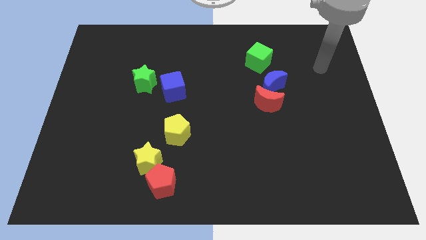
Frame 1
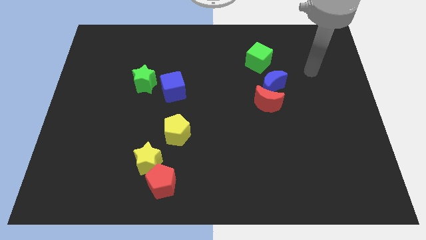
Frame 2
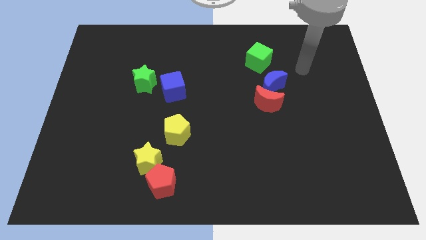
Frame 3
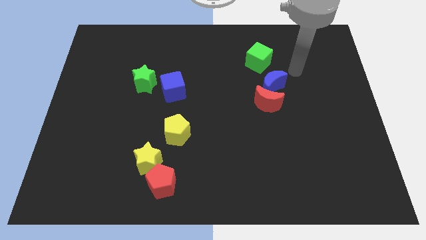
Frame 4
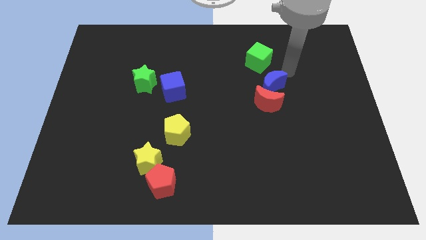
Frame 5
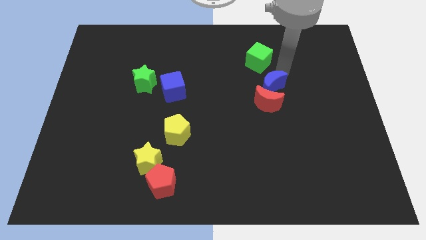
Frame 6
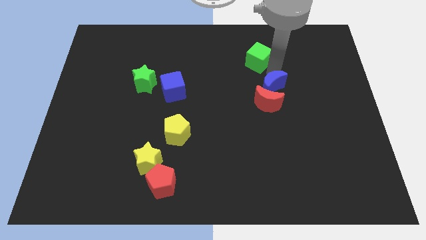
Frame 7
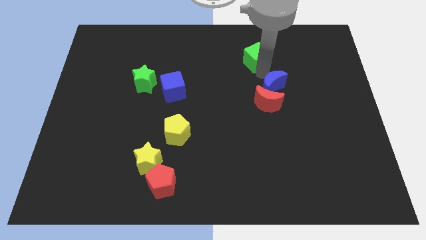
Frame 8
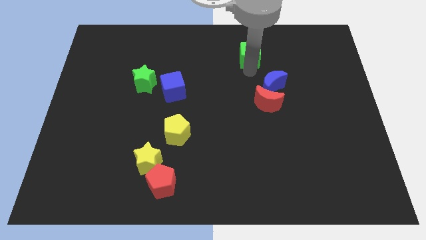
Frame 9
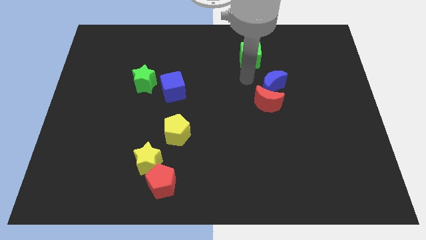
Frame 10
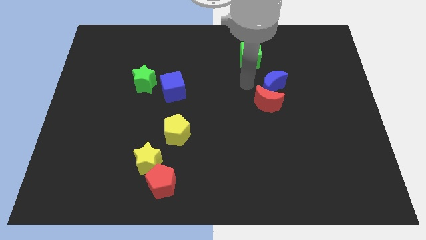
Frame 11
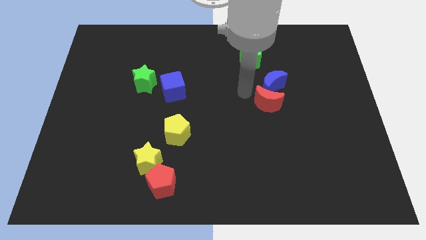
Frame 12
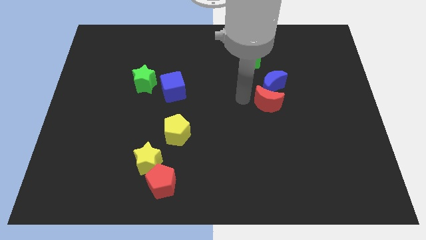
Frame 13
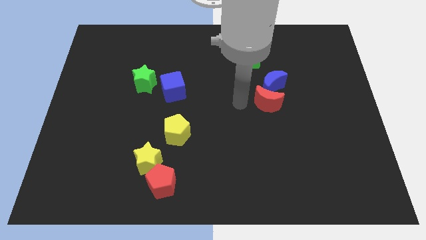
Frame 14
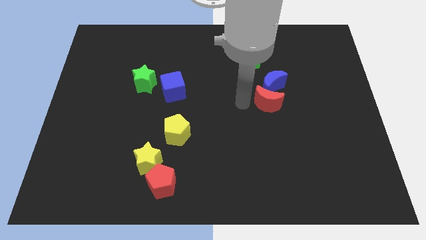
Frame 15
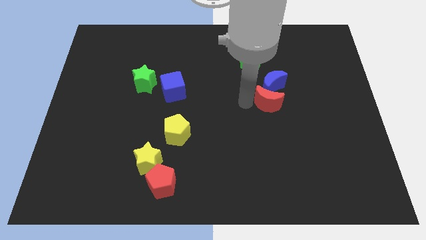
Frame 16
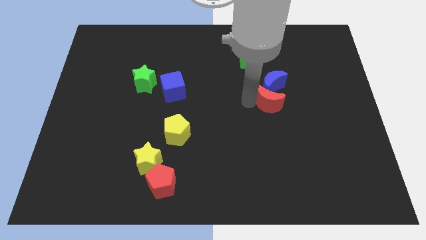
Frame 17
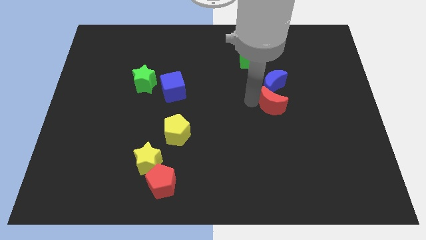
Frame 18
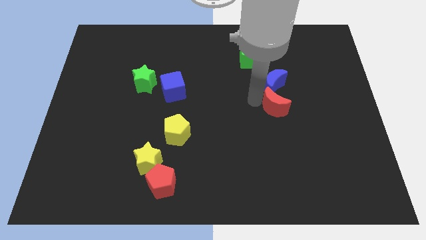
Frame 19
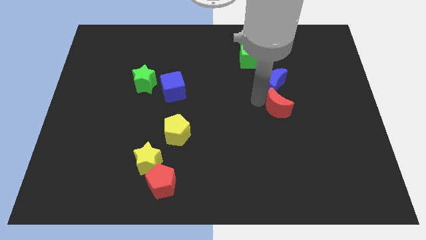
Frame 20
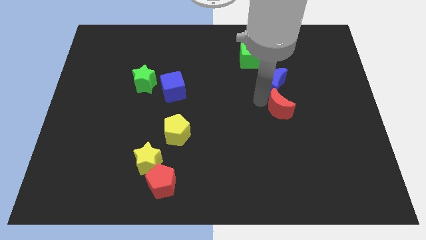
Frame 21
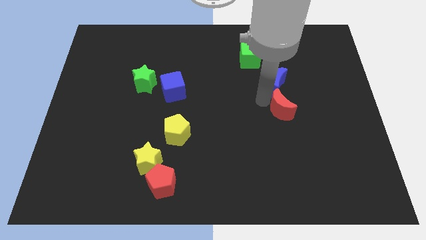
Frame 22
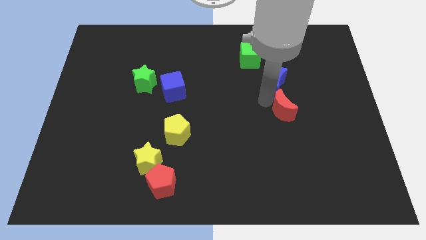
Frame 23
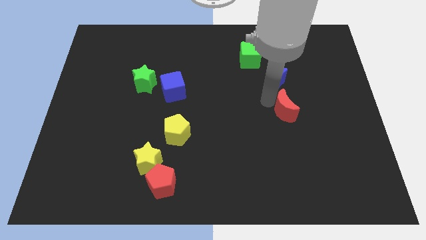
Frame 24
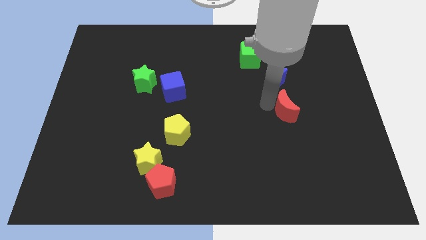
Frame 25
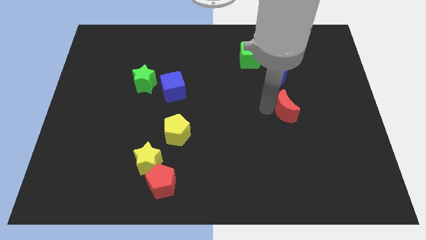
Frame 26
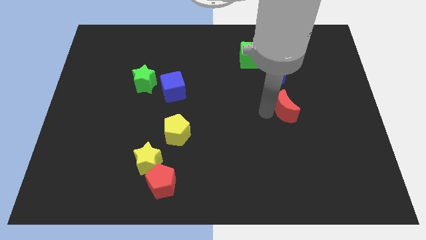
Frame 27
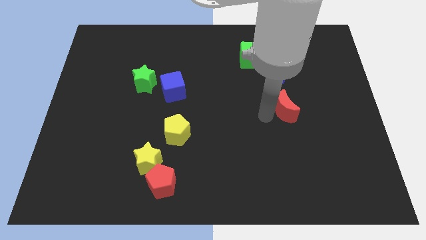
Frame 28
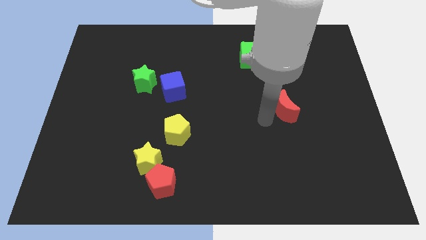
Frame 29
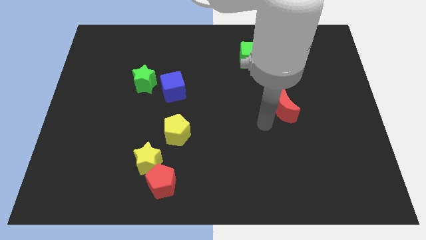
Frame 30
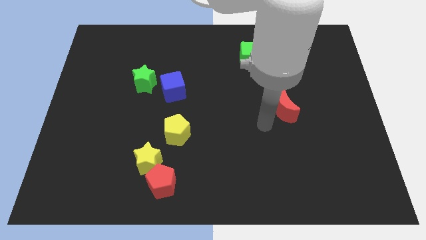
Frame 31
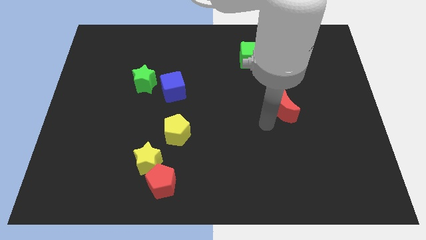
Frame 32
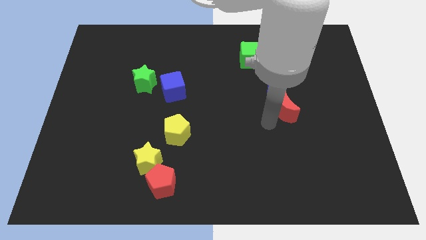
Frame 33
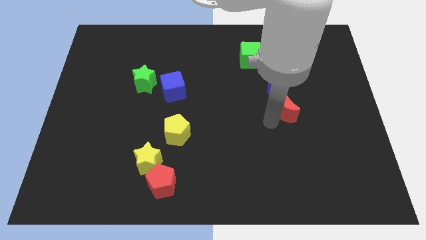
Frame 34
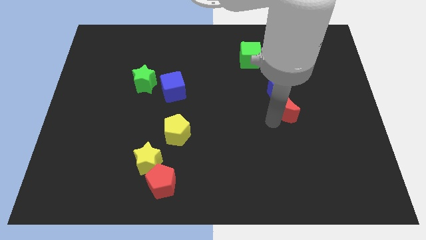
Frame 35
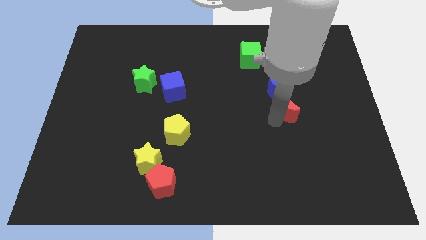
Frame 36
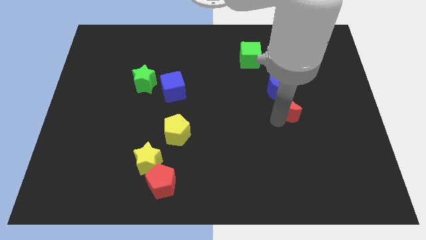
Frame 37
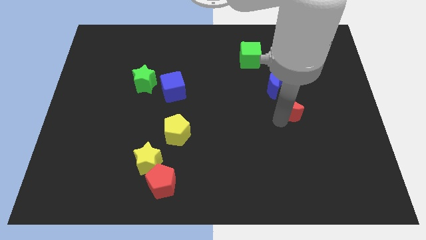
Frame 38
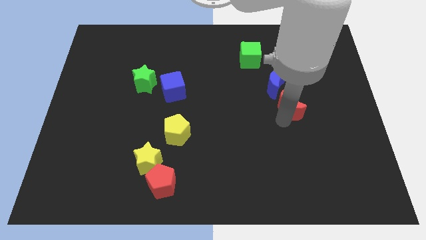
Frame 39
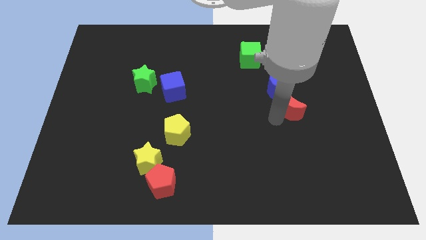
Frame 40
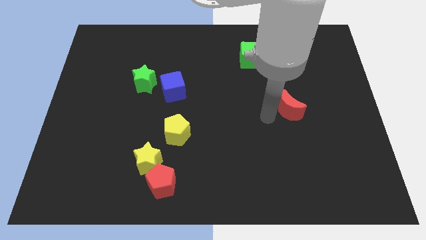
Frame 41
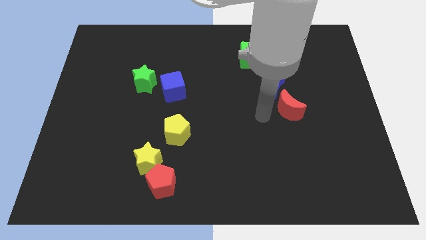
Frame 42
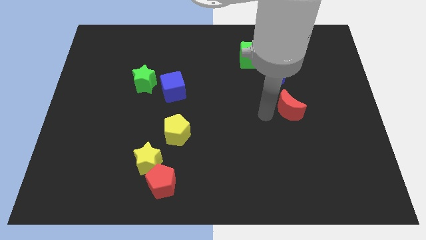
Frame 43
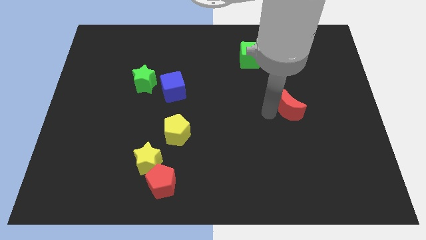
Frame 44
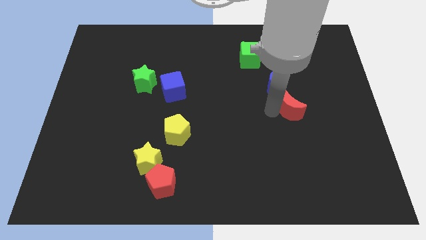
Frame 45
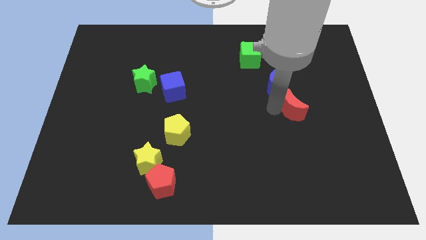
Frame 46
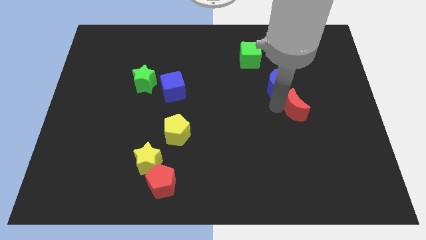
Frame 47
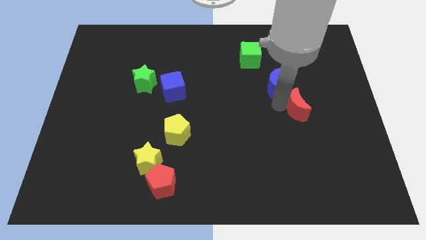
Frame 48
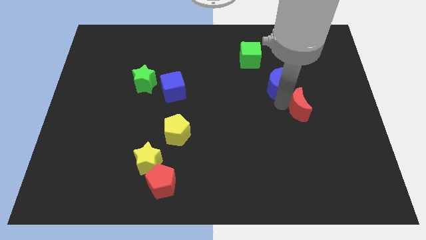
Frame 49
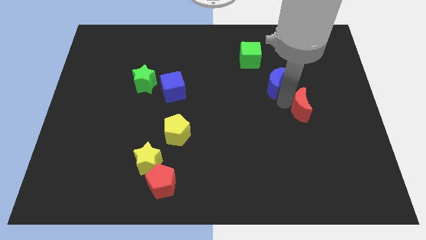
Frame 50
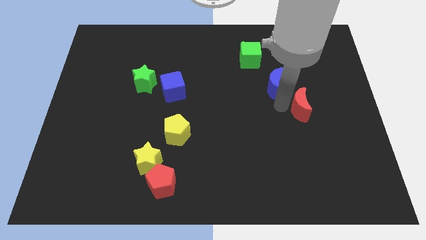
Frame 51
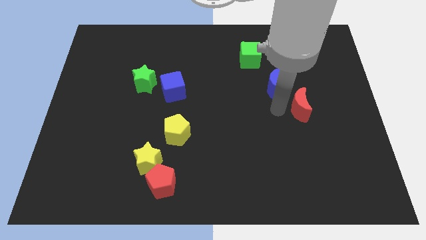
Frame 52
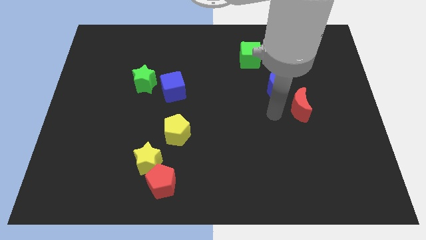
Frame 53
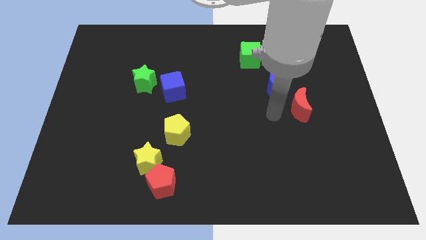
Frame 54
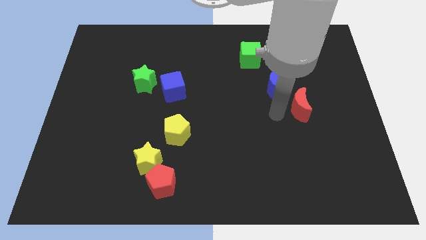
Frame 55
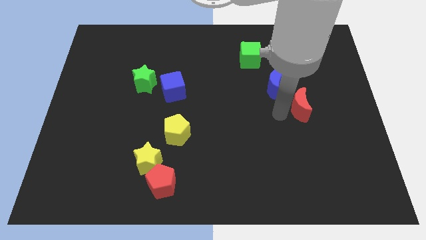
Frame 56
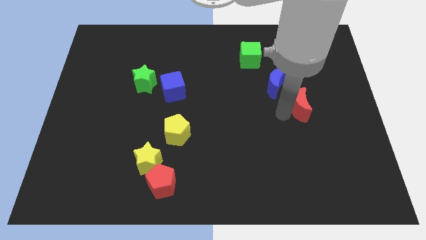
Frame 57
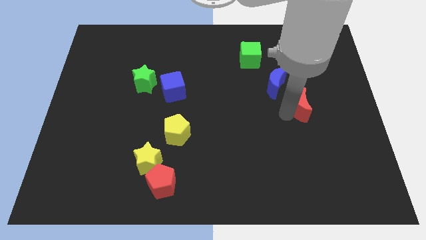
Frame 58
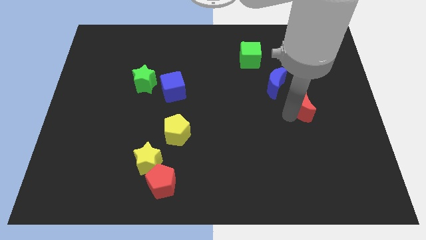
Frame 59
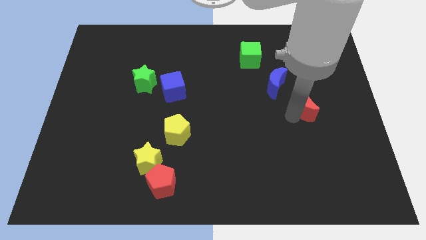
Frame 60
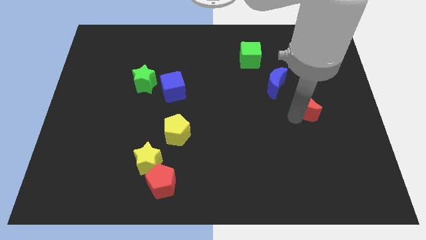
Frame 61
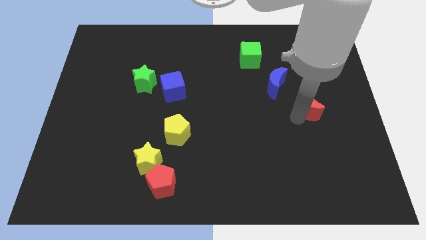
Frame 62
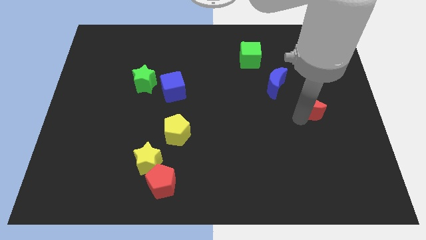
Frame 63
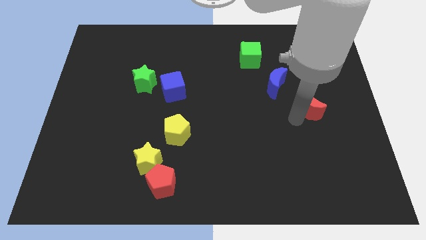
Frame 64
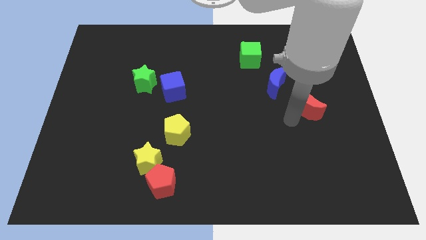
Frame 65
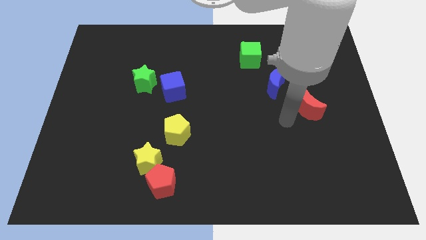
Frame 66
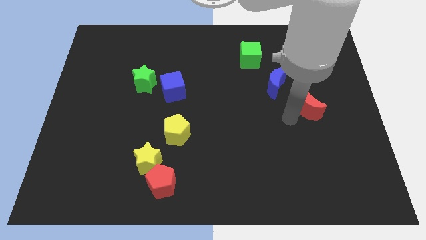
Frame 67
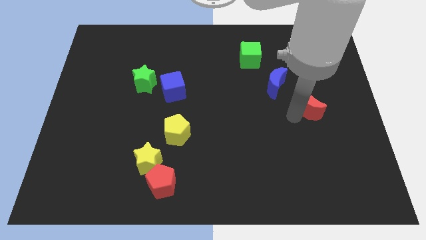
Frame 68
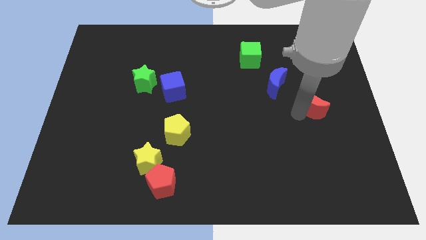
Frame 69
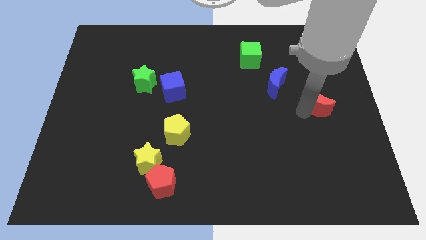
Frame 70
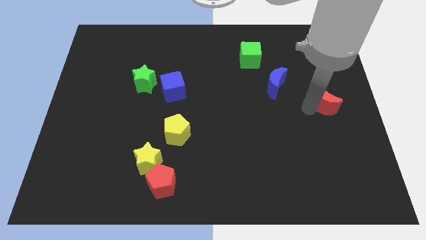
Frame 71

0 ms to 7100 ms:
push the red moon to the right side of the board
